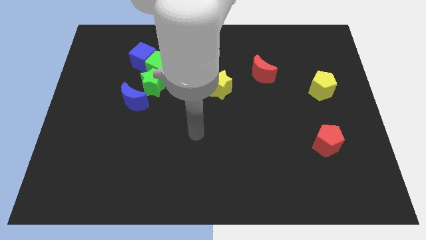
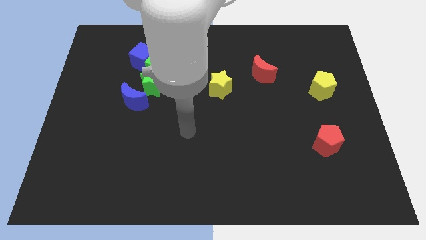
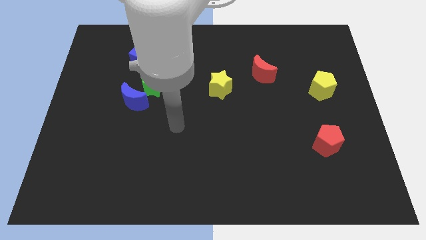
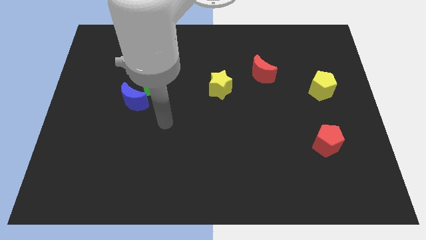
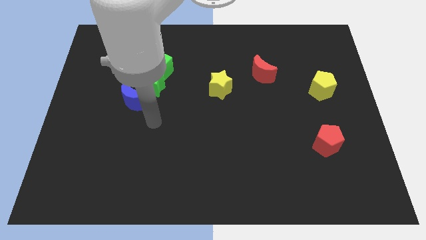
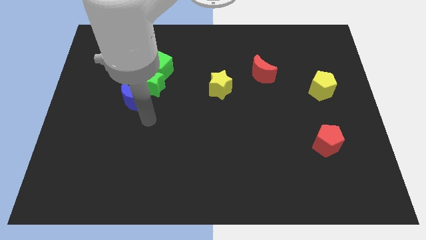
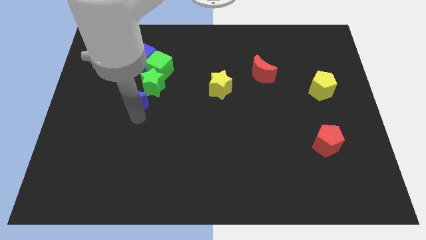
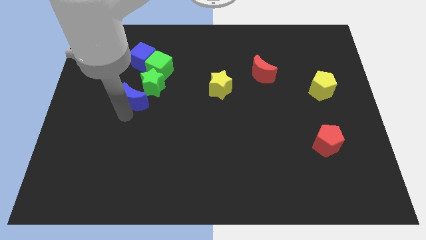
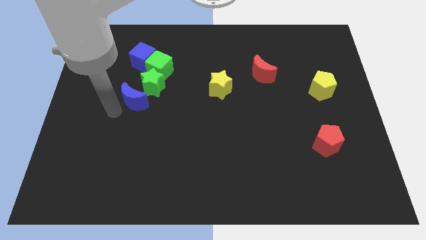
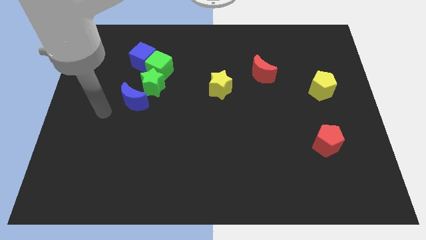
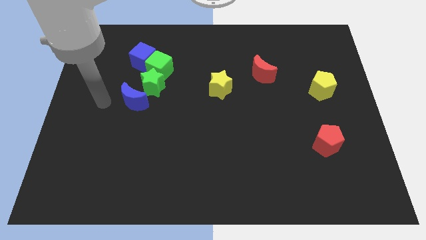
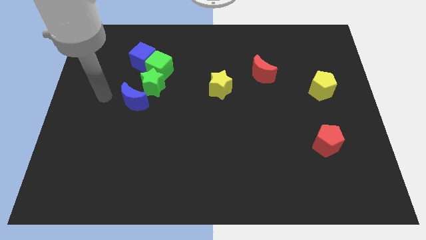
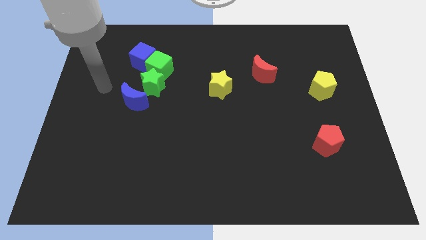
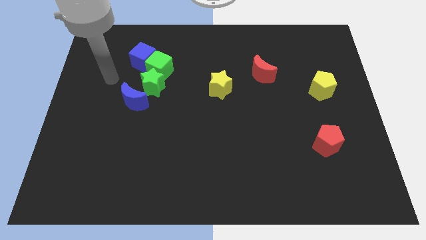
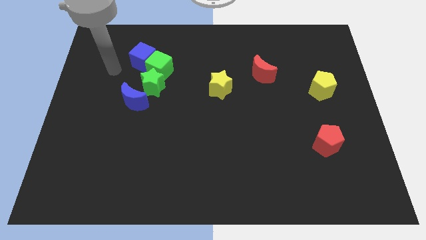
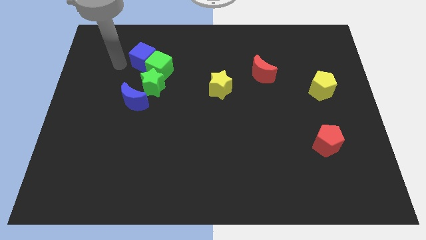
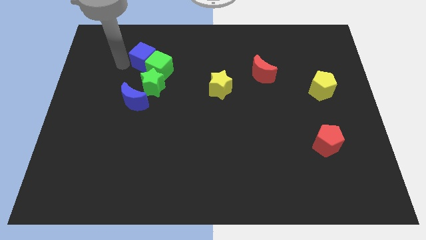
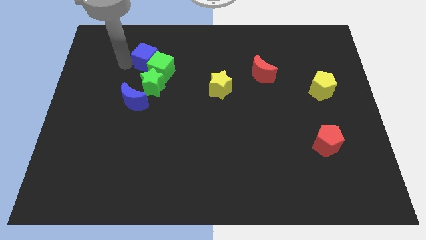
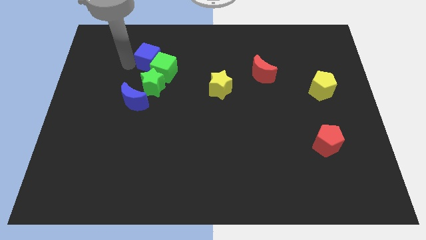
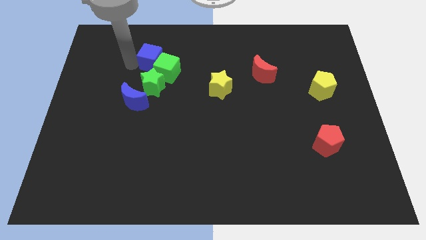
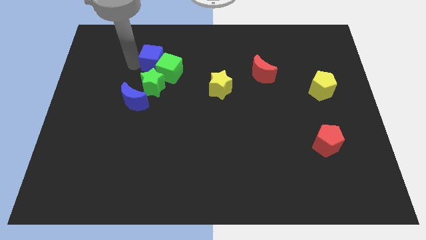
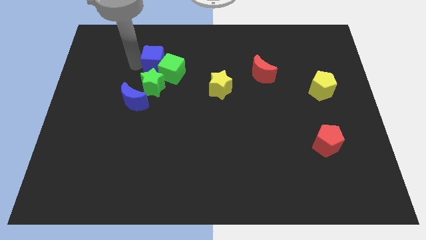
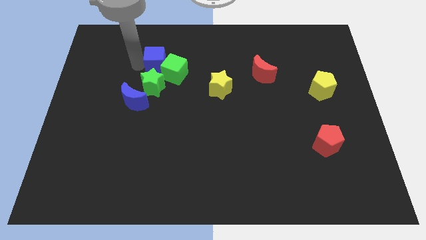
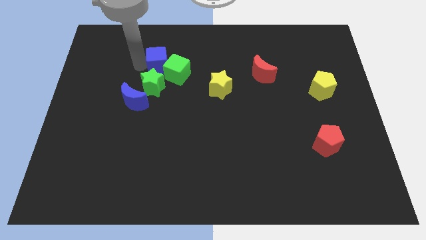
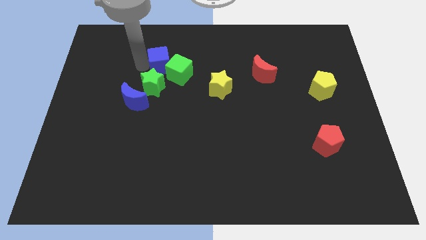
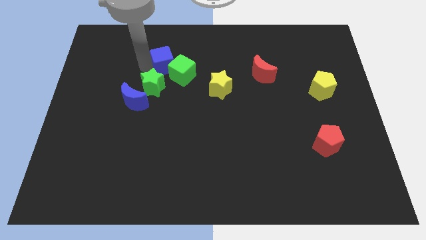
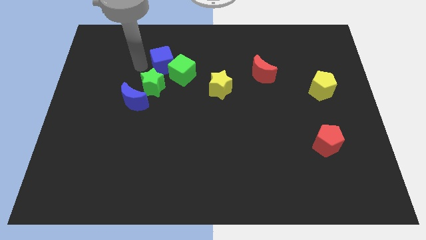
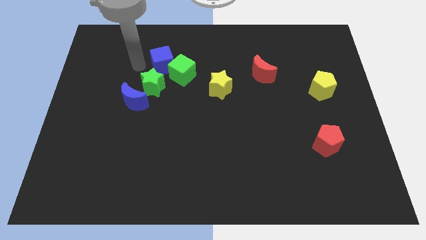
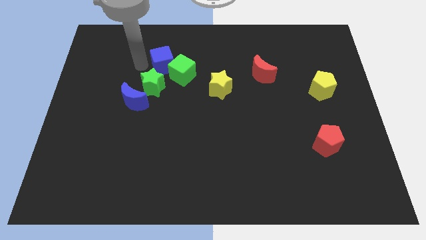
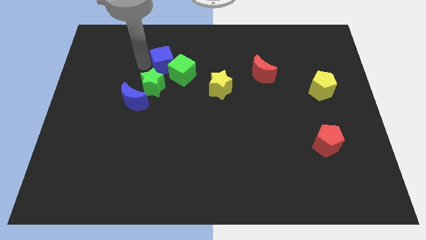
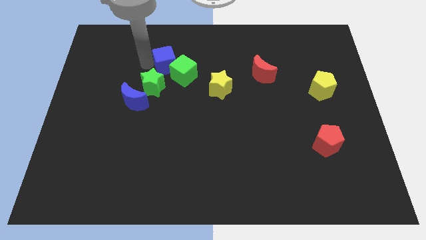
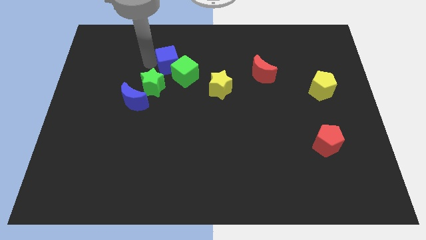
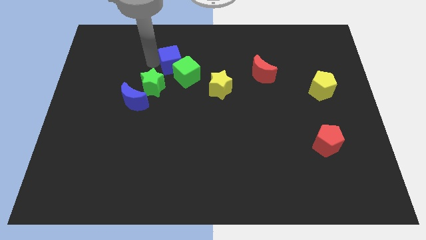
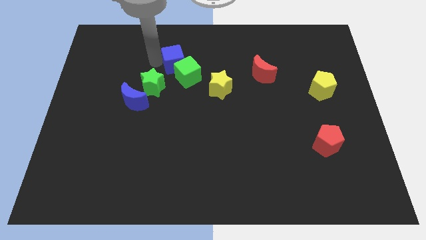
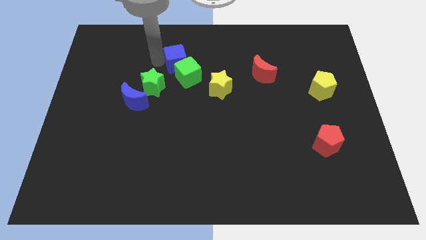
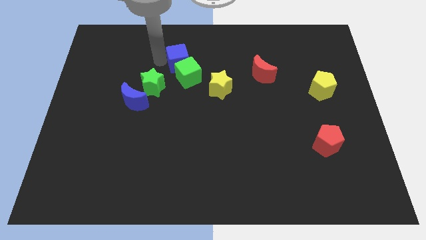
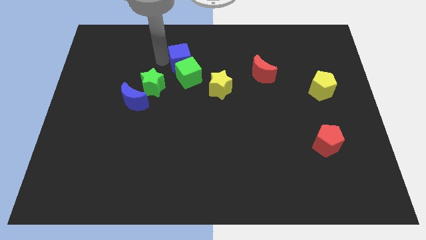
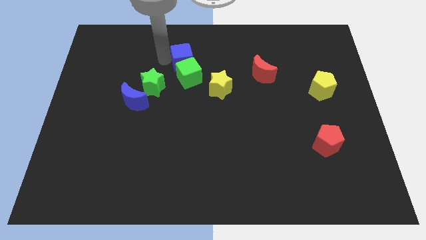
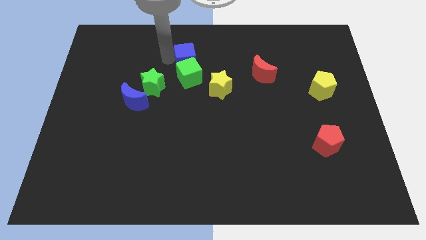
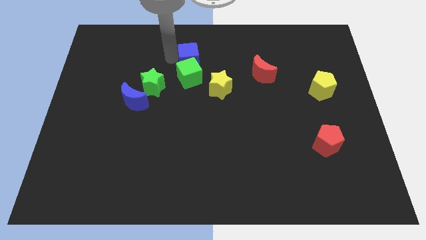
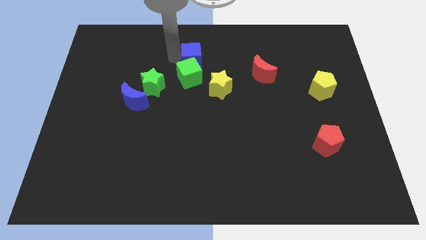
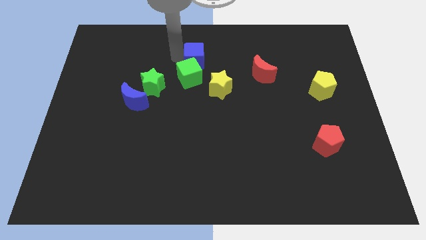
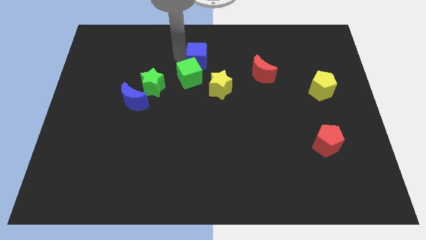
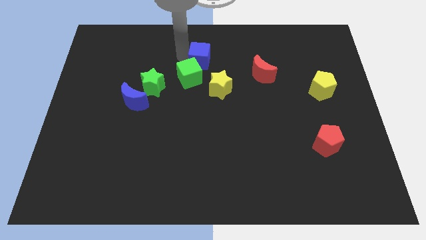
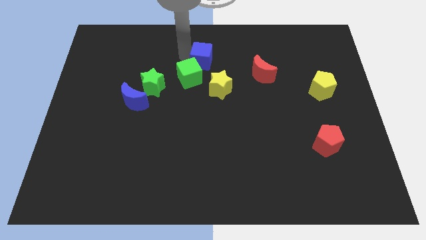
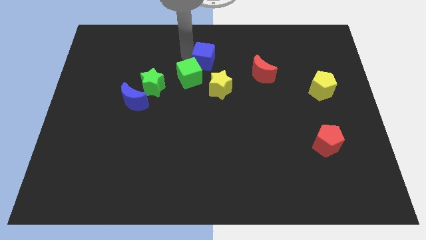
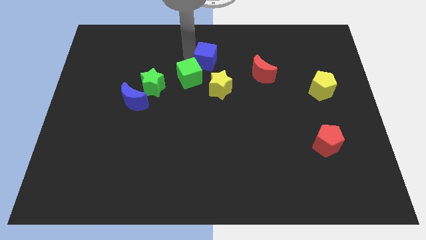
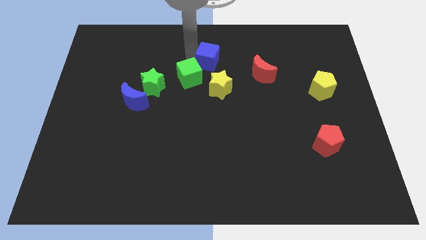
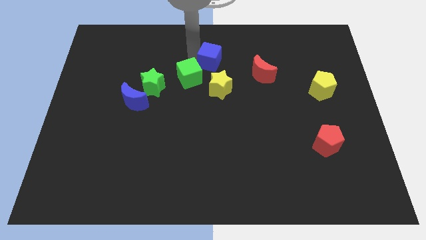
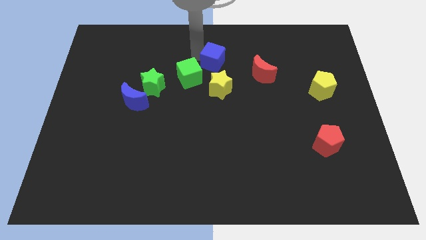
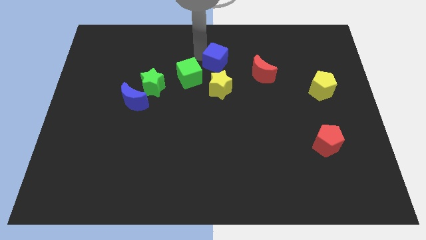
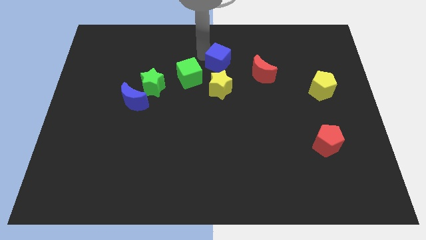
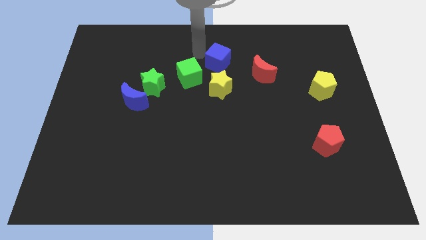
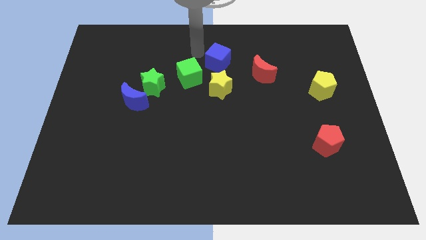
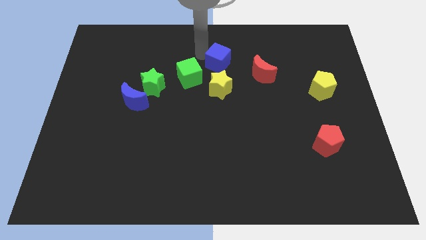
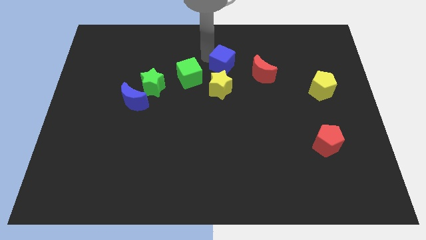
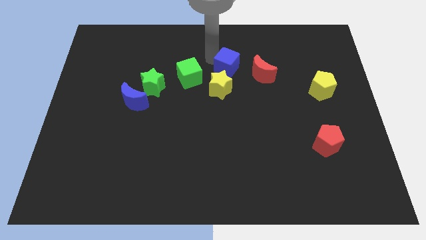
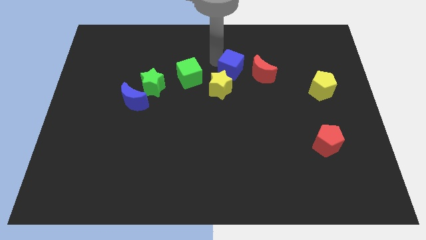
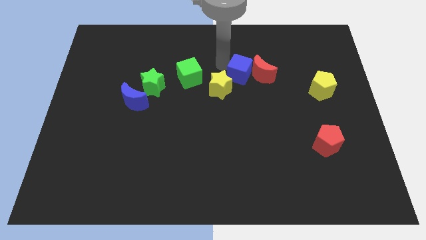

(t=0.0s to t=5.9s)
slide the blue cube close to the red moon
